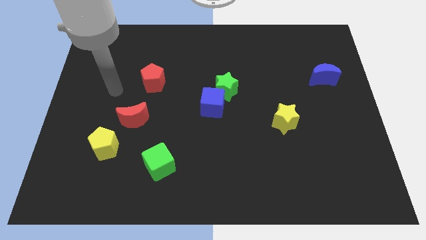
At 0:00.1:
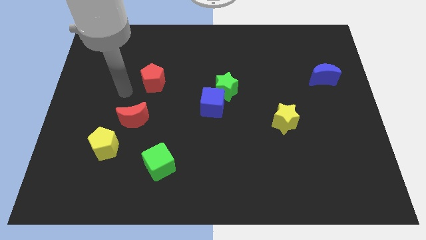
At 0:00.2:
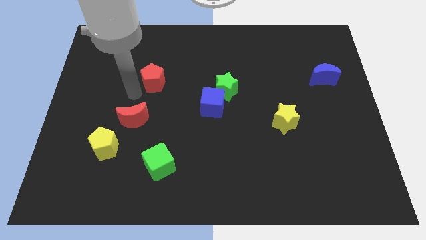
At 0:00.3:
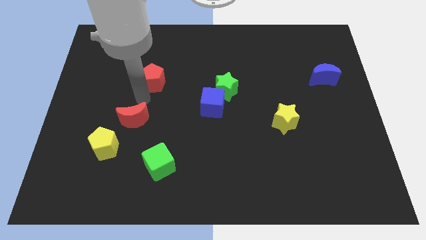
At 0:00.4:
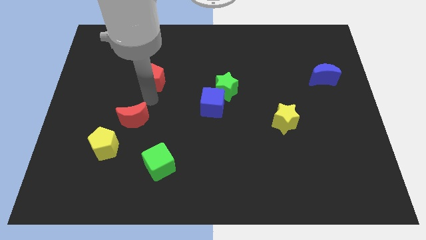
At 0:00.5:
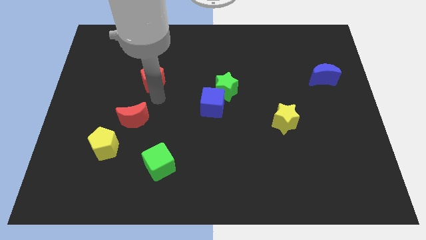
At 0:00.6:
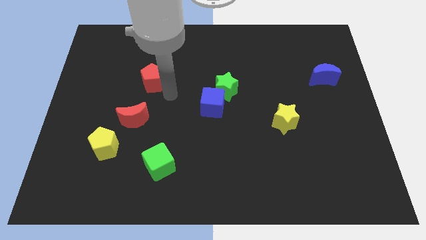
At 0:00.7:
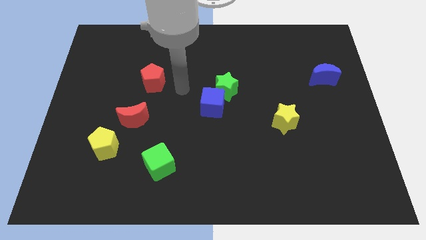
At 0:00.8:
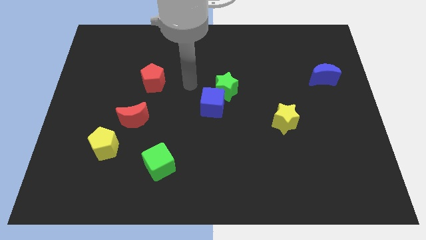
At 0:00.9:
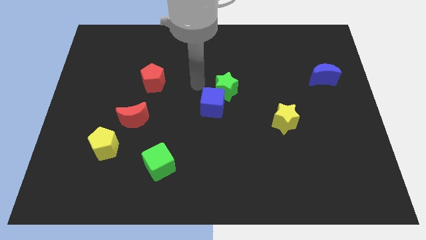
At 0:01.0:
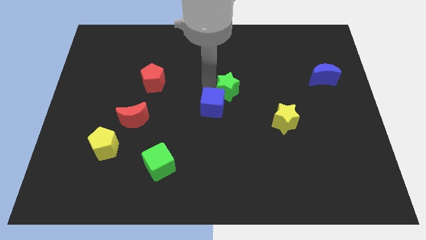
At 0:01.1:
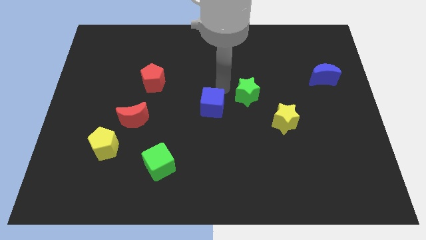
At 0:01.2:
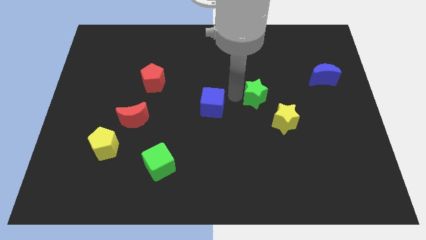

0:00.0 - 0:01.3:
pull the blue cube apart from the green star

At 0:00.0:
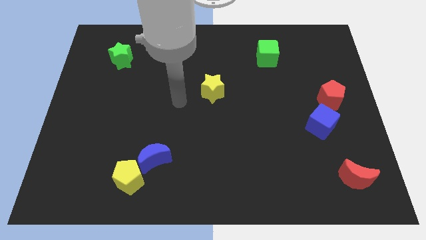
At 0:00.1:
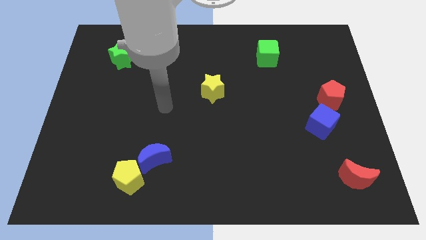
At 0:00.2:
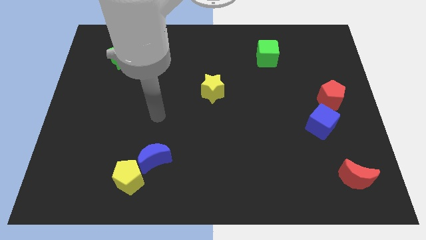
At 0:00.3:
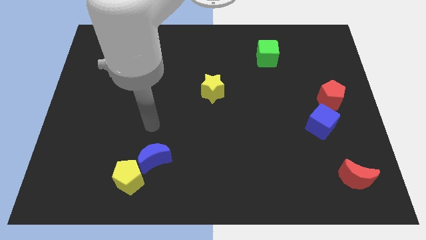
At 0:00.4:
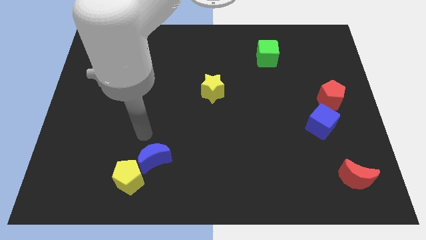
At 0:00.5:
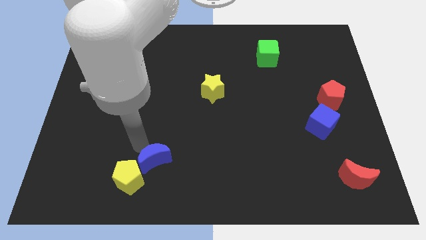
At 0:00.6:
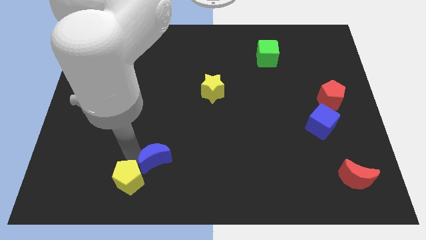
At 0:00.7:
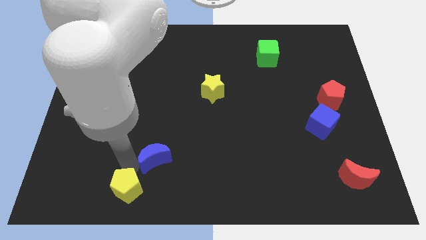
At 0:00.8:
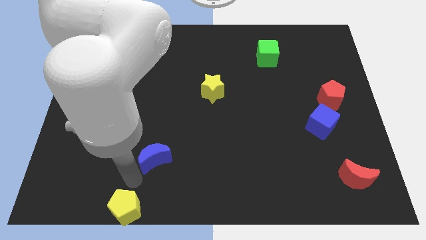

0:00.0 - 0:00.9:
separate the blue moon from the yellow pentagon

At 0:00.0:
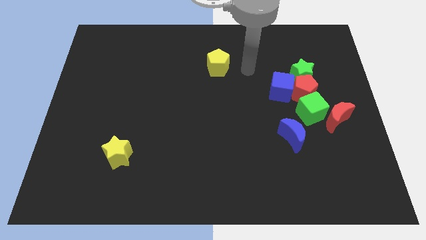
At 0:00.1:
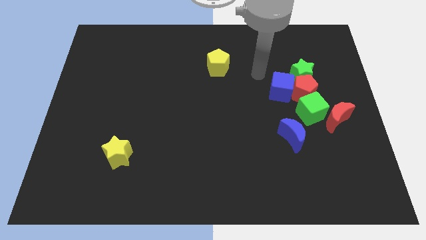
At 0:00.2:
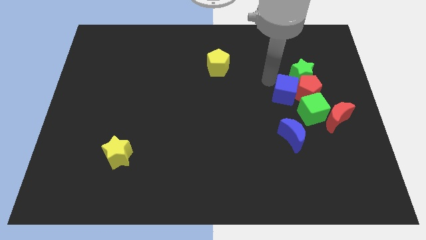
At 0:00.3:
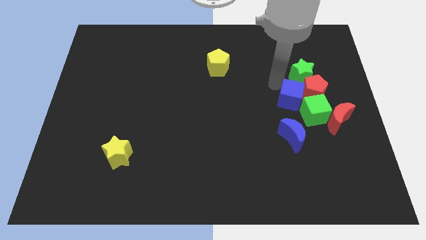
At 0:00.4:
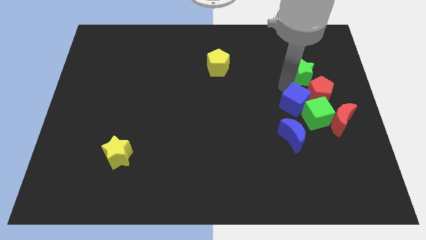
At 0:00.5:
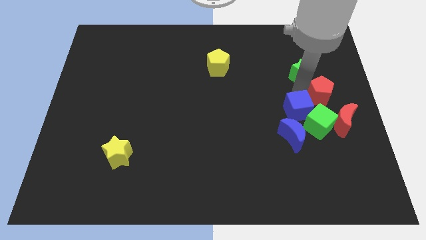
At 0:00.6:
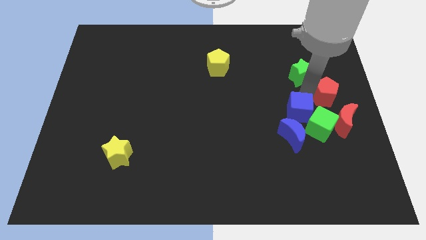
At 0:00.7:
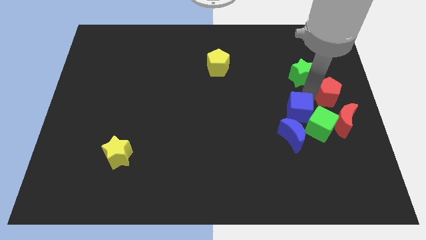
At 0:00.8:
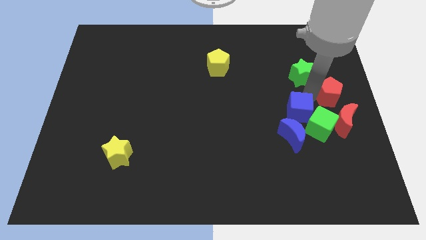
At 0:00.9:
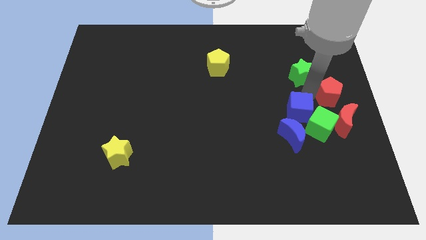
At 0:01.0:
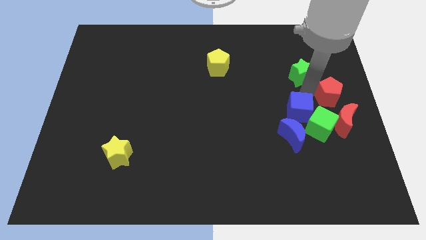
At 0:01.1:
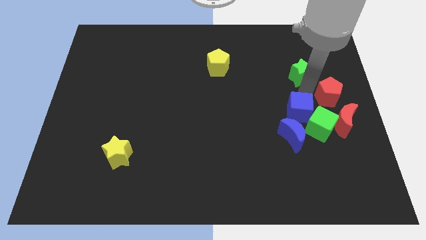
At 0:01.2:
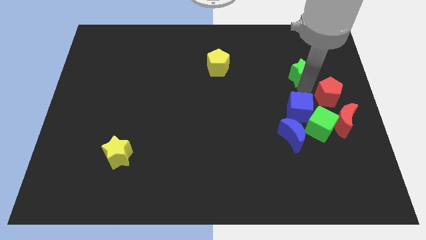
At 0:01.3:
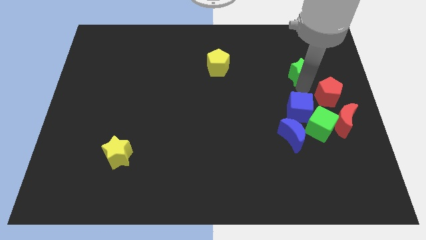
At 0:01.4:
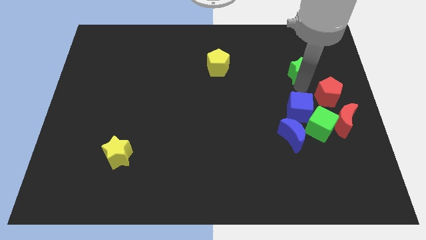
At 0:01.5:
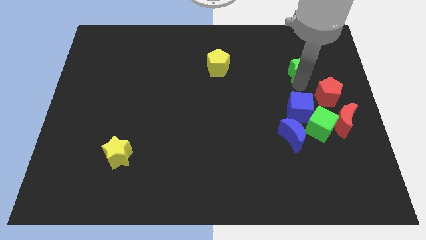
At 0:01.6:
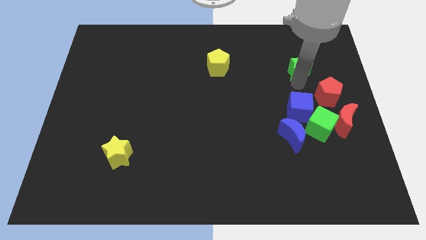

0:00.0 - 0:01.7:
move the green star away from the red pentagon and blue cube

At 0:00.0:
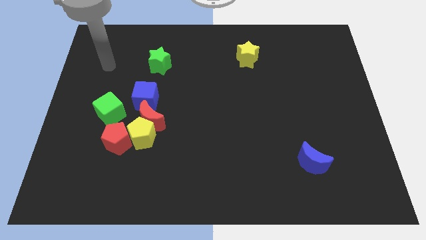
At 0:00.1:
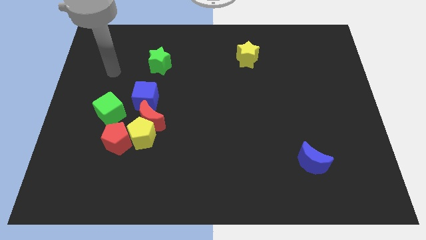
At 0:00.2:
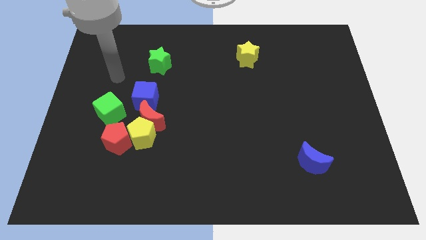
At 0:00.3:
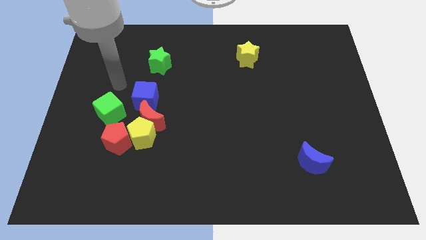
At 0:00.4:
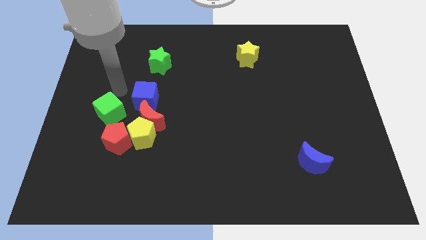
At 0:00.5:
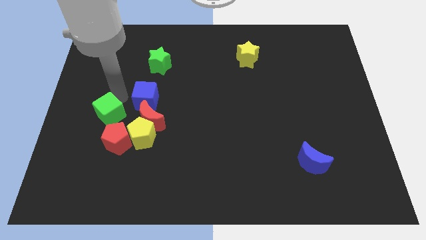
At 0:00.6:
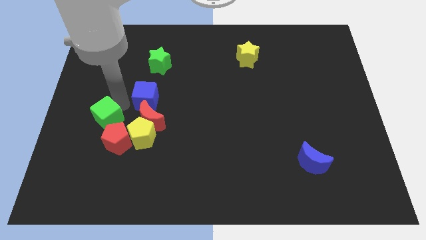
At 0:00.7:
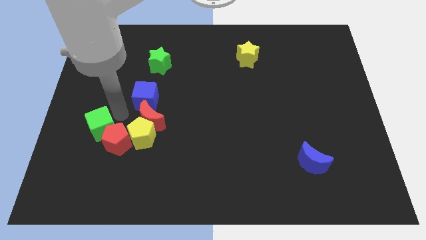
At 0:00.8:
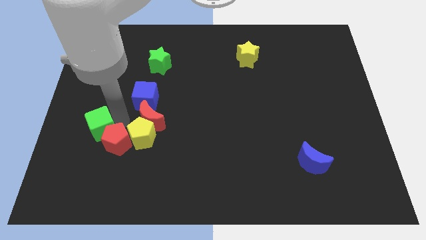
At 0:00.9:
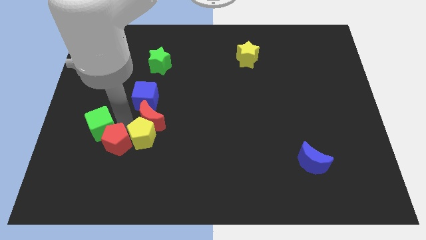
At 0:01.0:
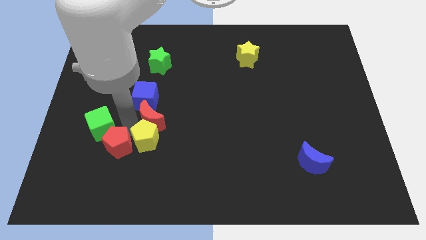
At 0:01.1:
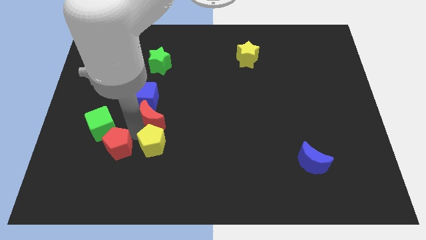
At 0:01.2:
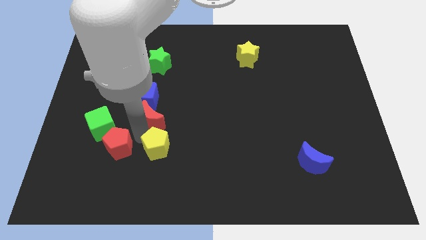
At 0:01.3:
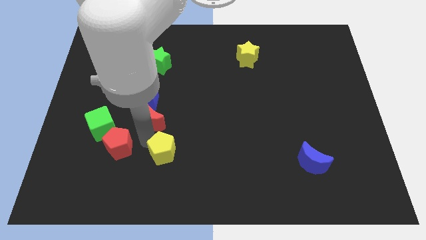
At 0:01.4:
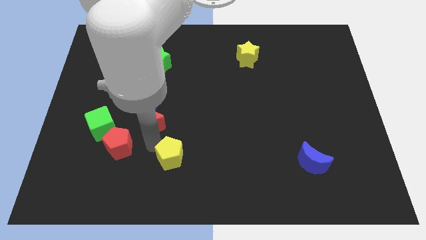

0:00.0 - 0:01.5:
pull the yellow pentagon apart from the red moon and red pentagon

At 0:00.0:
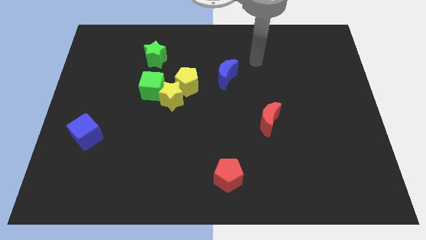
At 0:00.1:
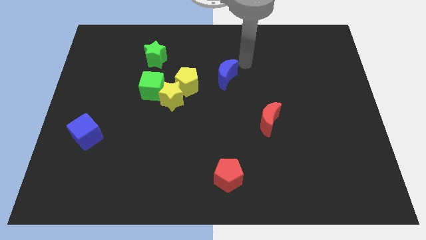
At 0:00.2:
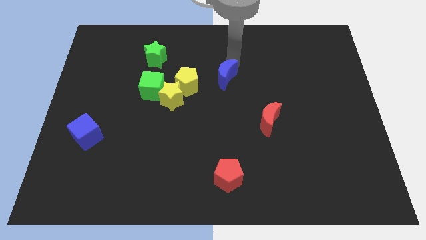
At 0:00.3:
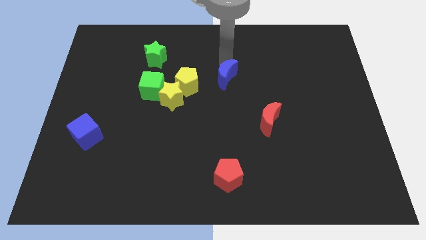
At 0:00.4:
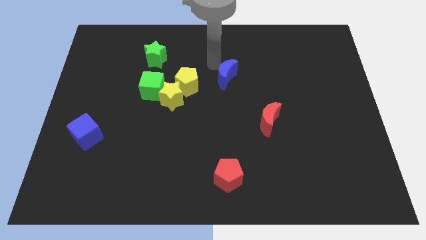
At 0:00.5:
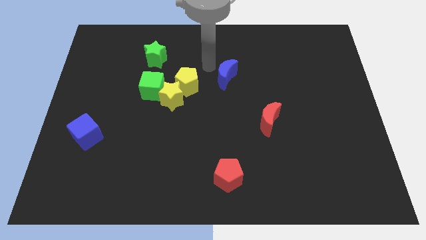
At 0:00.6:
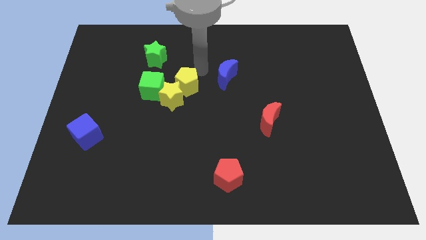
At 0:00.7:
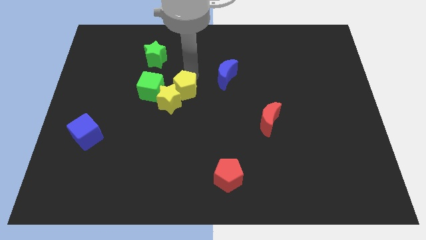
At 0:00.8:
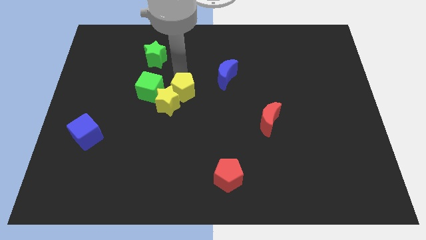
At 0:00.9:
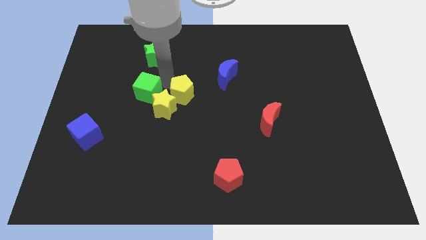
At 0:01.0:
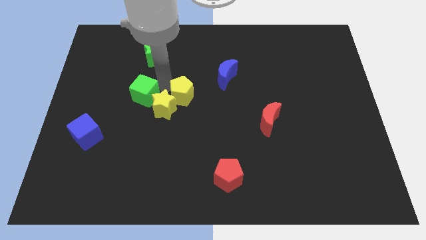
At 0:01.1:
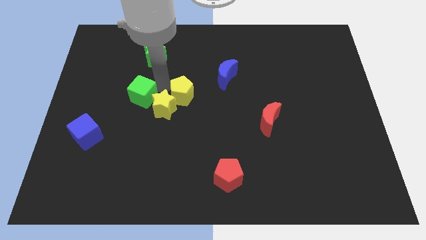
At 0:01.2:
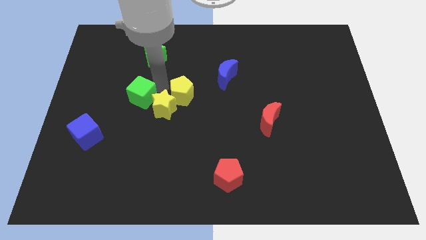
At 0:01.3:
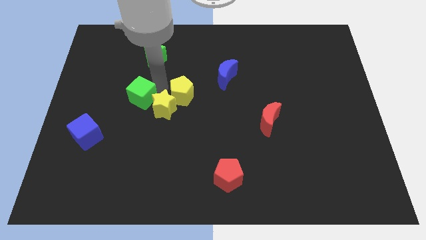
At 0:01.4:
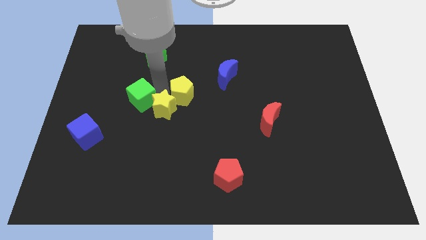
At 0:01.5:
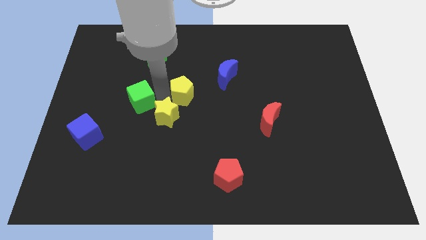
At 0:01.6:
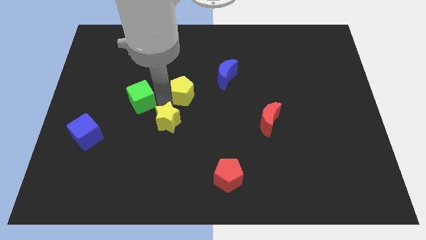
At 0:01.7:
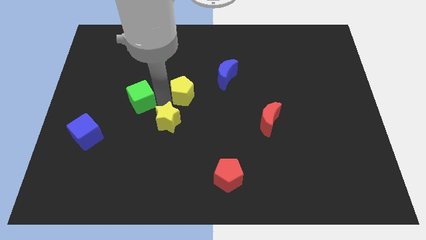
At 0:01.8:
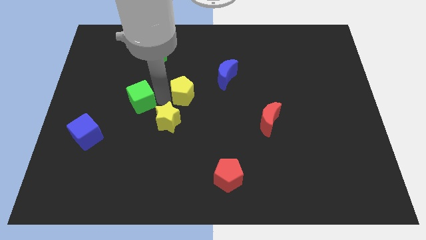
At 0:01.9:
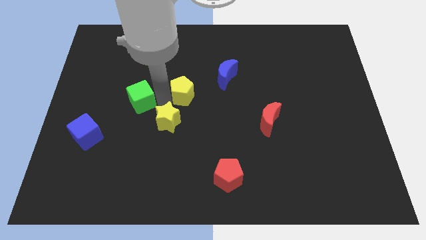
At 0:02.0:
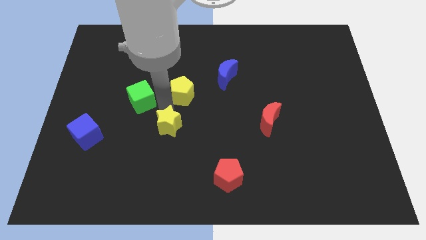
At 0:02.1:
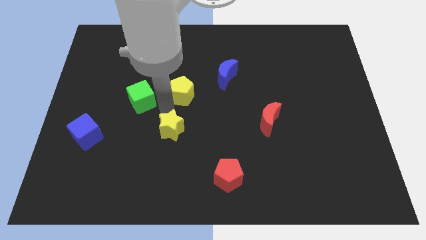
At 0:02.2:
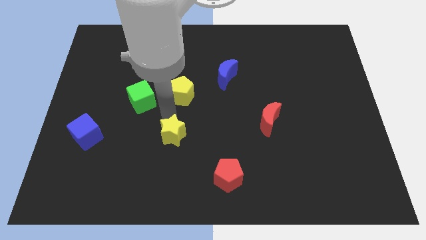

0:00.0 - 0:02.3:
separate the yellow star from the yellow pentagon and green cube

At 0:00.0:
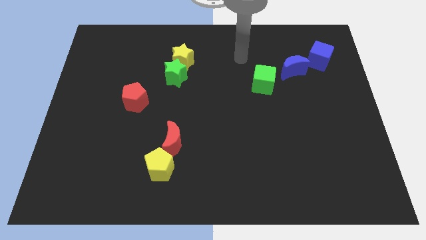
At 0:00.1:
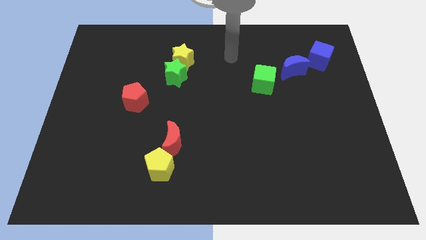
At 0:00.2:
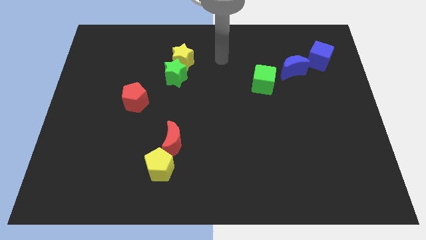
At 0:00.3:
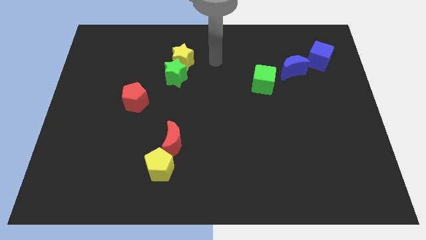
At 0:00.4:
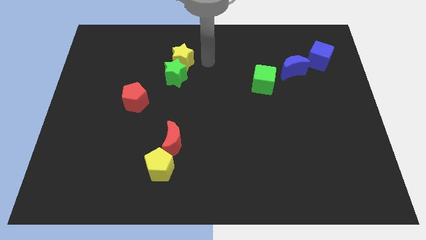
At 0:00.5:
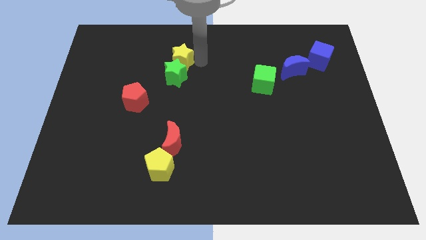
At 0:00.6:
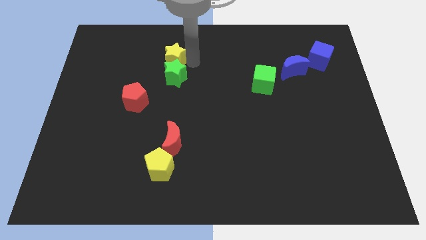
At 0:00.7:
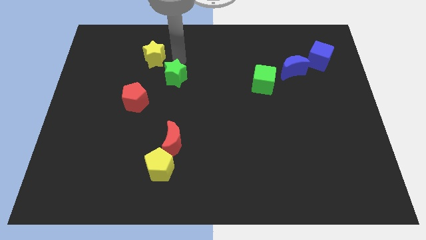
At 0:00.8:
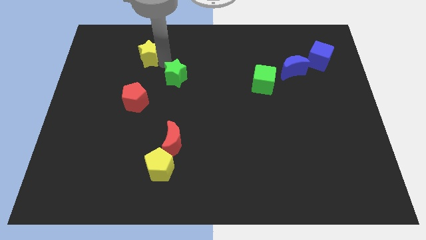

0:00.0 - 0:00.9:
move the green star away from the yellow star

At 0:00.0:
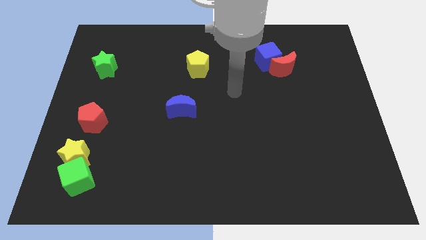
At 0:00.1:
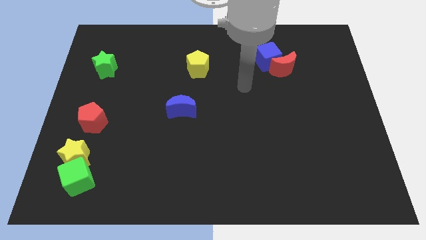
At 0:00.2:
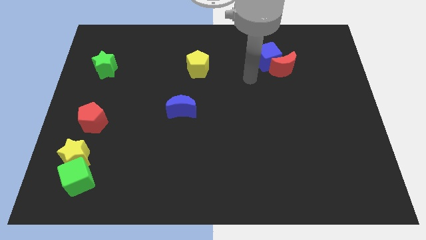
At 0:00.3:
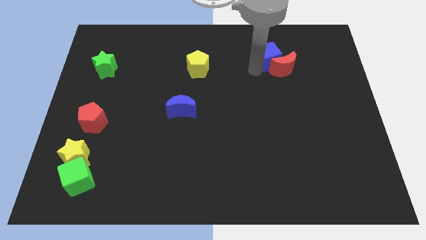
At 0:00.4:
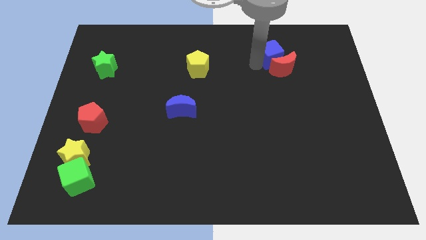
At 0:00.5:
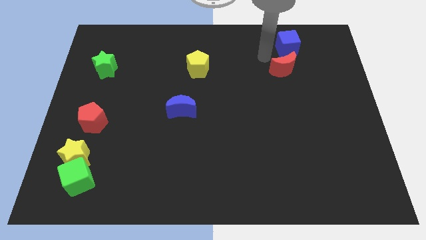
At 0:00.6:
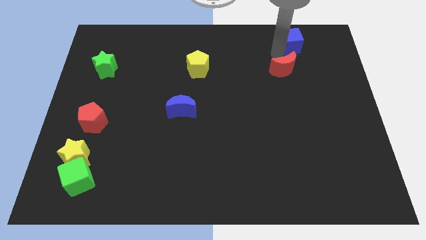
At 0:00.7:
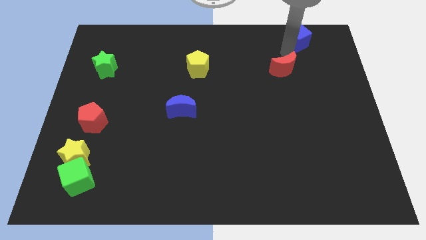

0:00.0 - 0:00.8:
separate the red moon from the blue cube
